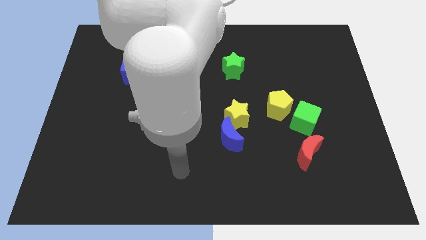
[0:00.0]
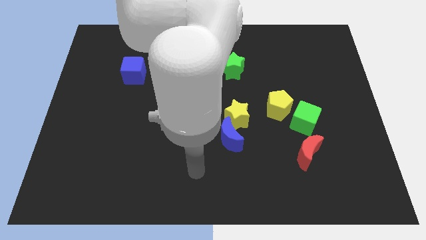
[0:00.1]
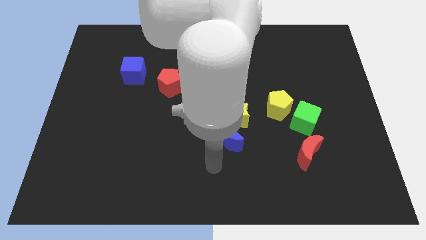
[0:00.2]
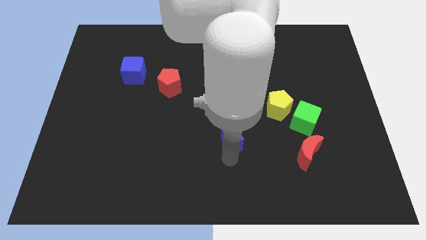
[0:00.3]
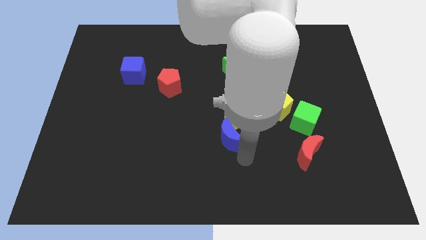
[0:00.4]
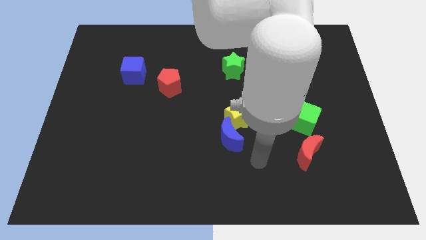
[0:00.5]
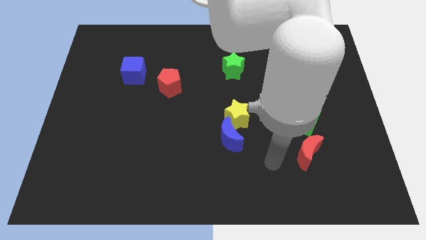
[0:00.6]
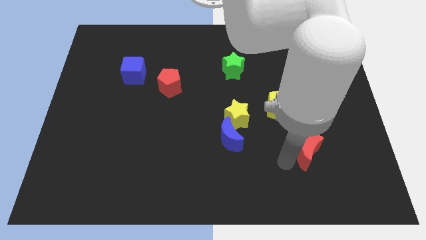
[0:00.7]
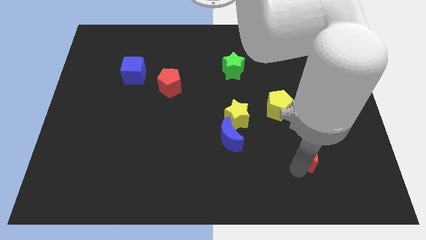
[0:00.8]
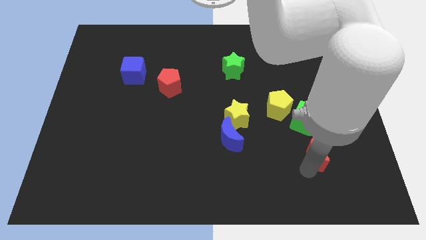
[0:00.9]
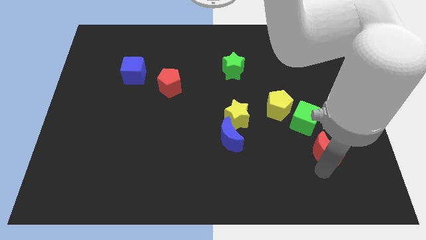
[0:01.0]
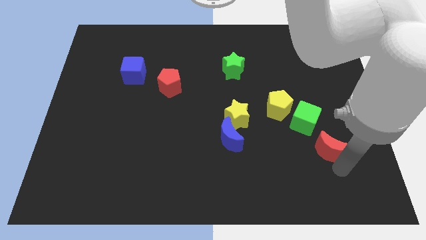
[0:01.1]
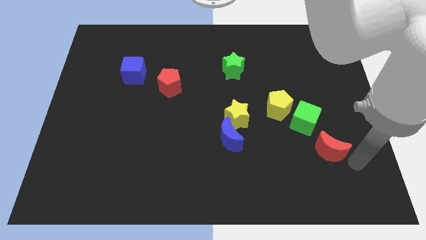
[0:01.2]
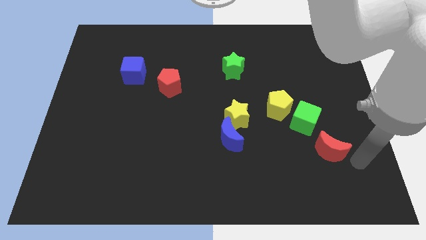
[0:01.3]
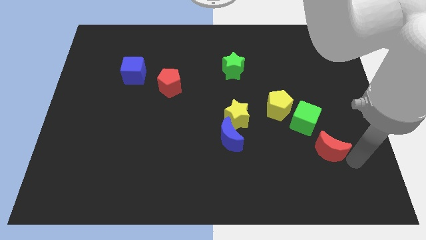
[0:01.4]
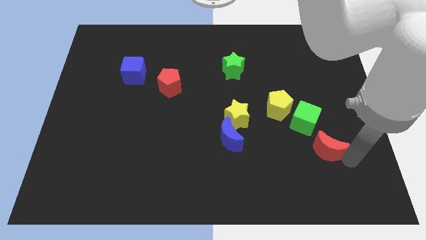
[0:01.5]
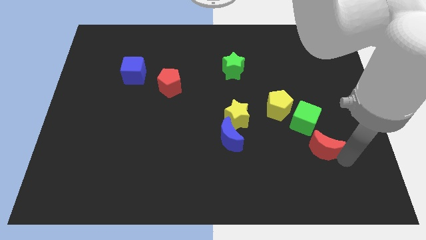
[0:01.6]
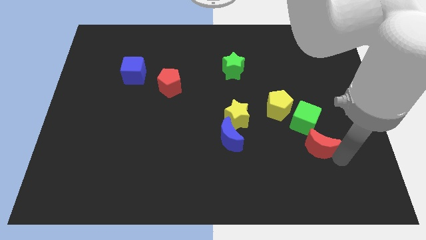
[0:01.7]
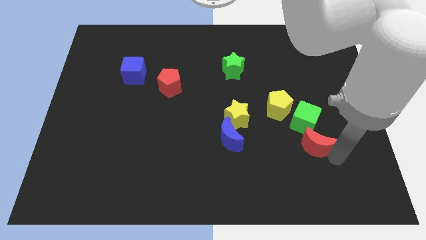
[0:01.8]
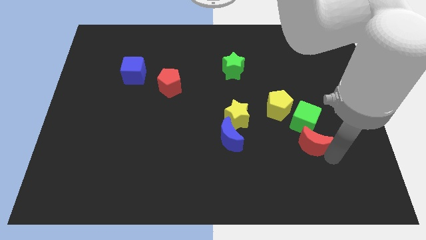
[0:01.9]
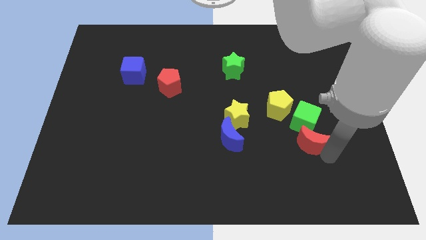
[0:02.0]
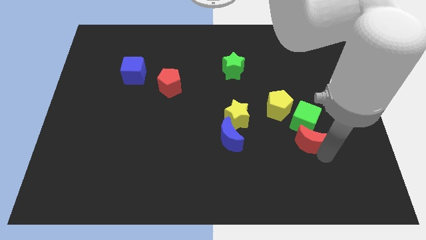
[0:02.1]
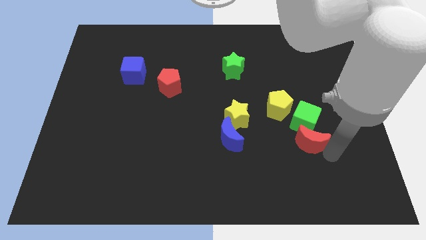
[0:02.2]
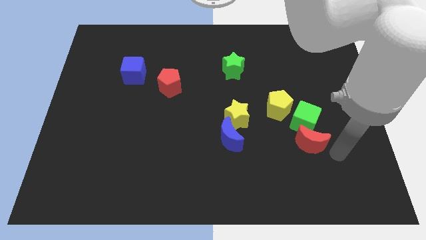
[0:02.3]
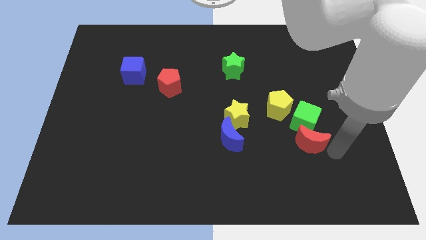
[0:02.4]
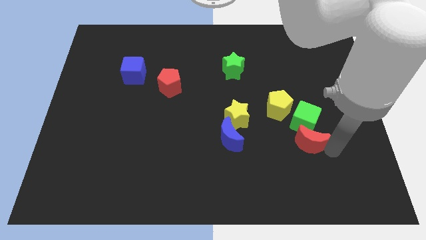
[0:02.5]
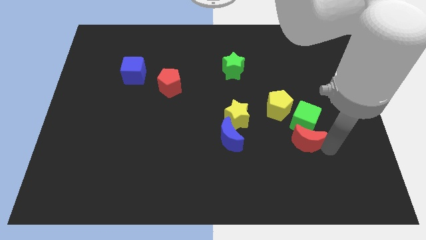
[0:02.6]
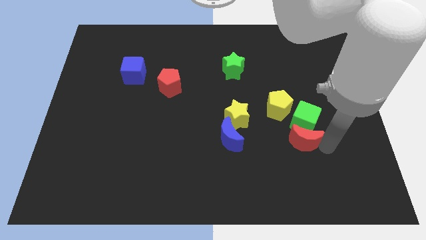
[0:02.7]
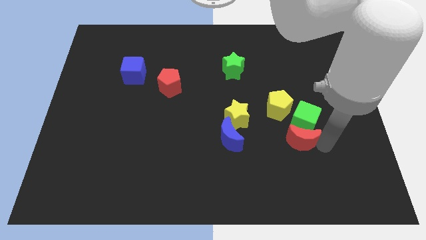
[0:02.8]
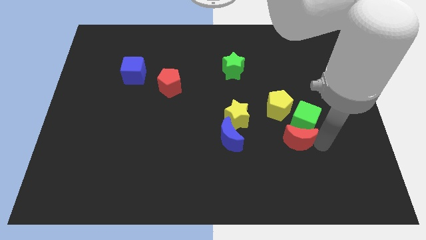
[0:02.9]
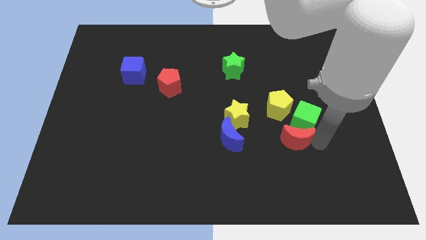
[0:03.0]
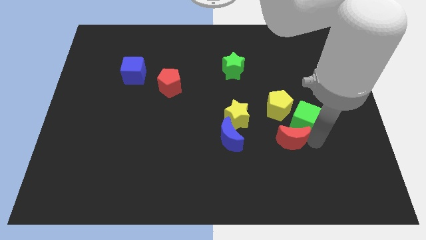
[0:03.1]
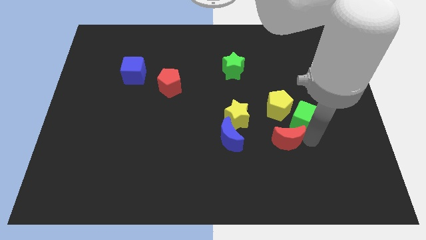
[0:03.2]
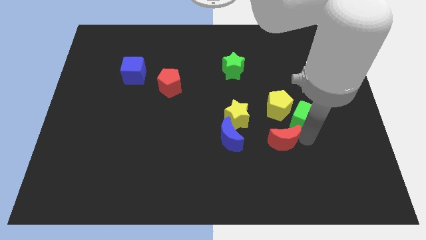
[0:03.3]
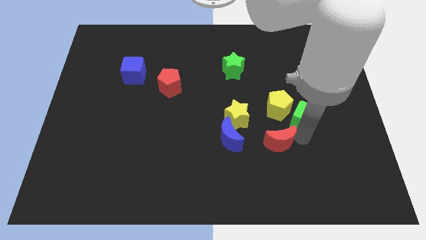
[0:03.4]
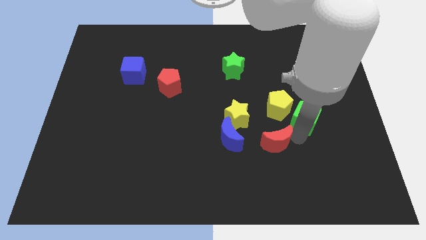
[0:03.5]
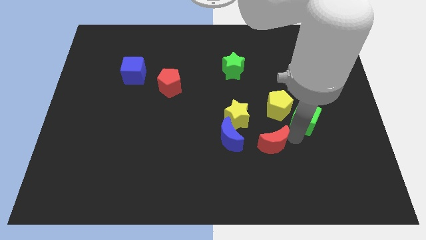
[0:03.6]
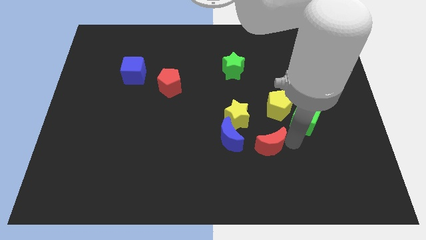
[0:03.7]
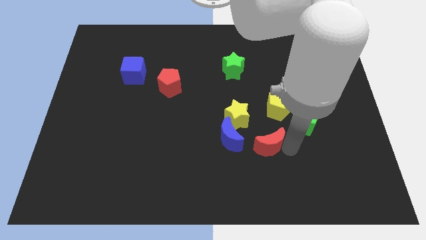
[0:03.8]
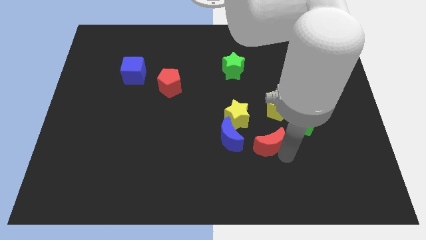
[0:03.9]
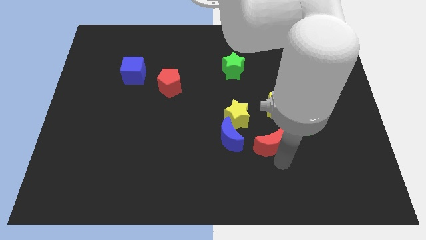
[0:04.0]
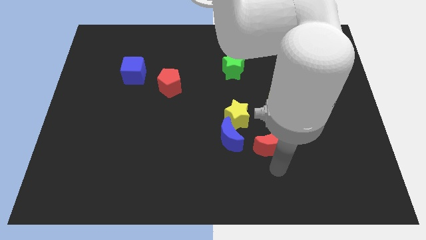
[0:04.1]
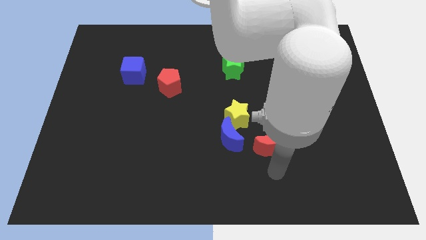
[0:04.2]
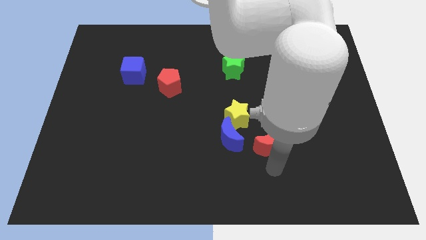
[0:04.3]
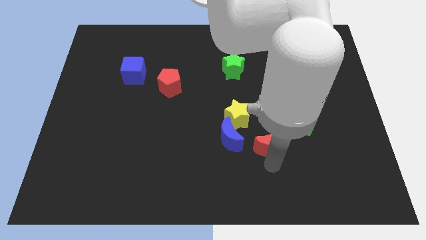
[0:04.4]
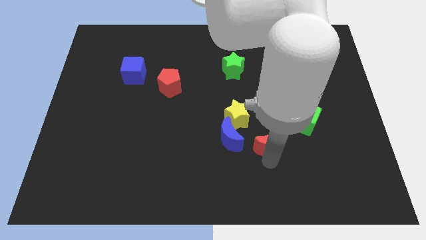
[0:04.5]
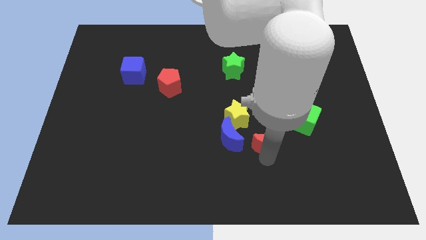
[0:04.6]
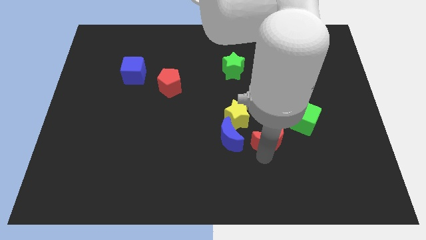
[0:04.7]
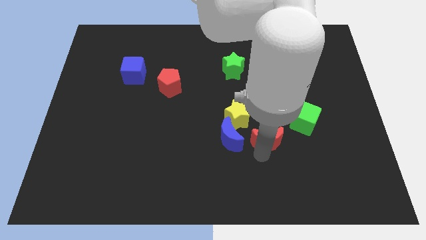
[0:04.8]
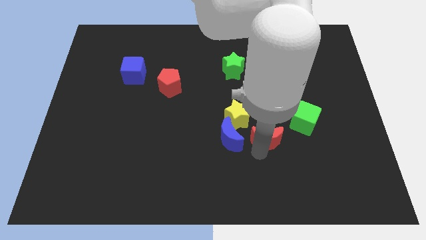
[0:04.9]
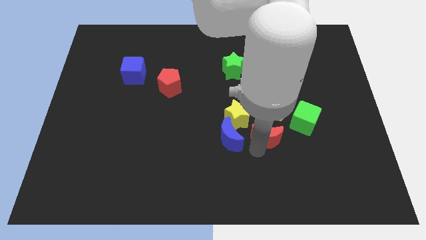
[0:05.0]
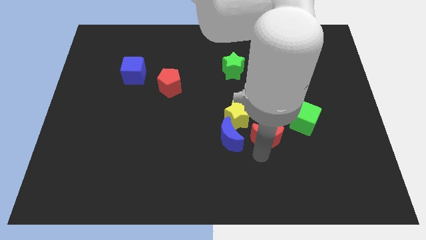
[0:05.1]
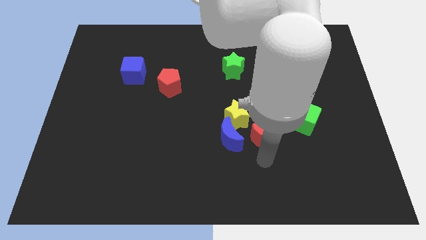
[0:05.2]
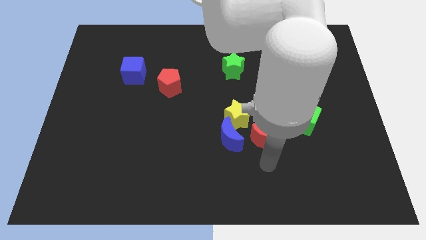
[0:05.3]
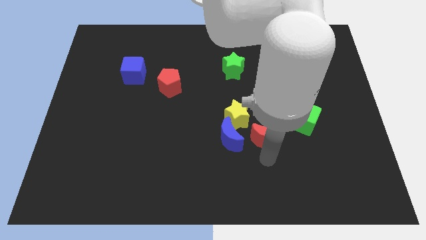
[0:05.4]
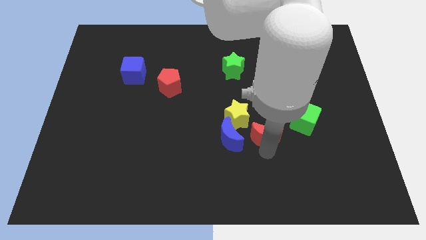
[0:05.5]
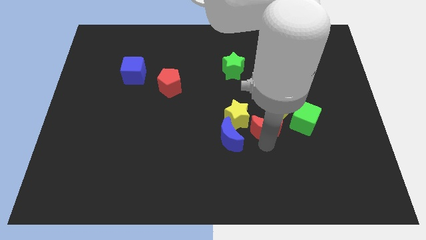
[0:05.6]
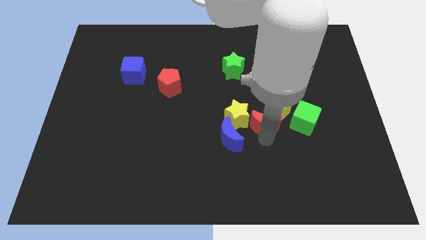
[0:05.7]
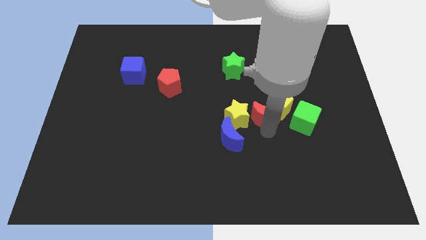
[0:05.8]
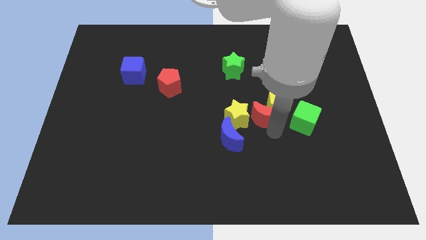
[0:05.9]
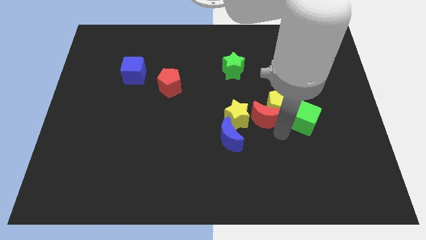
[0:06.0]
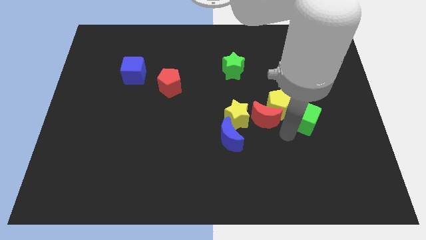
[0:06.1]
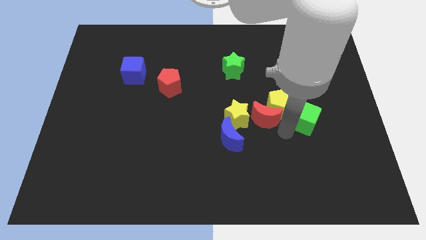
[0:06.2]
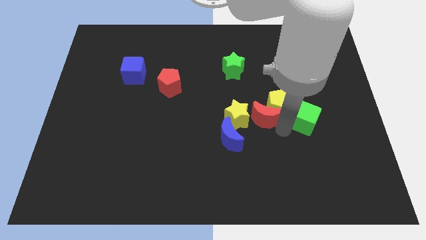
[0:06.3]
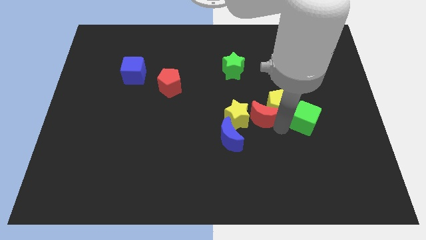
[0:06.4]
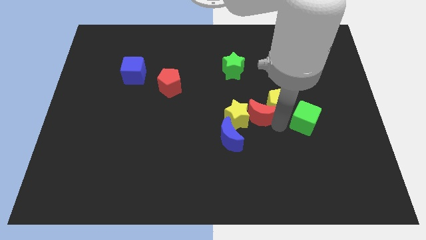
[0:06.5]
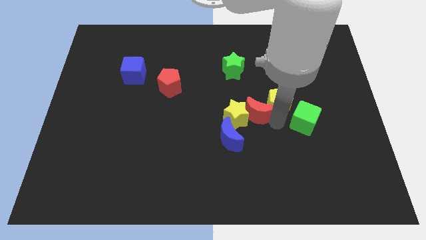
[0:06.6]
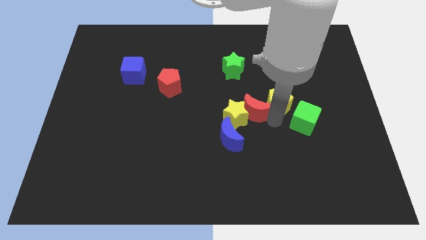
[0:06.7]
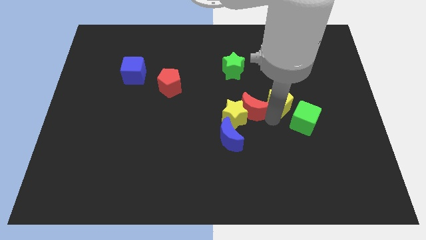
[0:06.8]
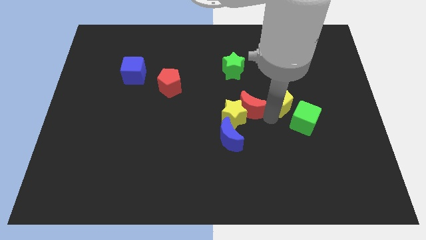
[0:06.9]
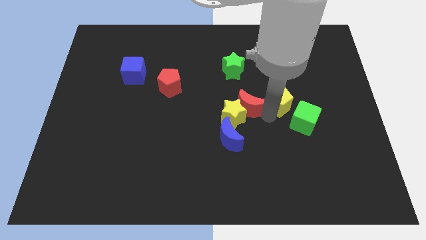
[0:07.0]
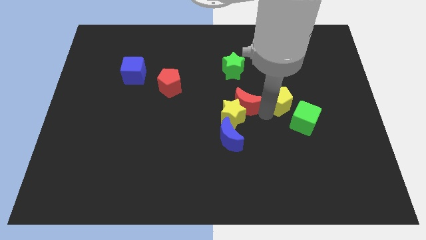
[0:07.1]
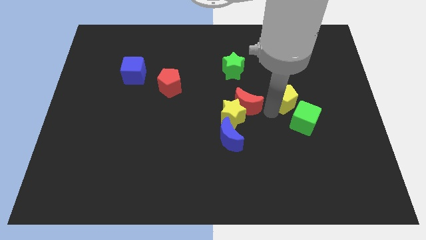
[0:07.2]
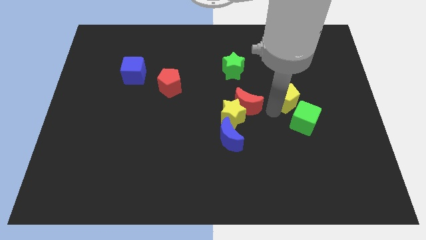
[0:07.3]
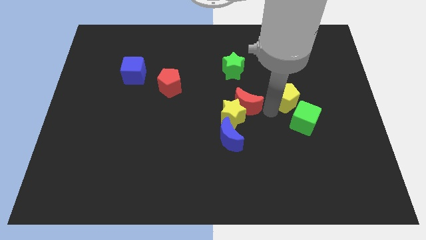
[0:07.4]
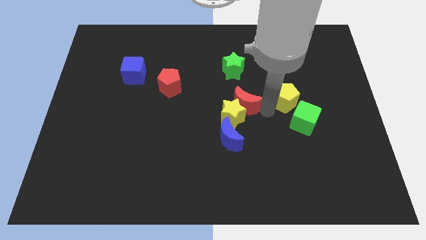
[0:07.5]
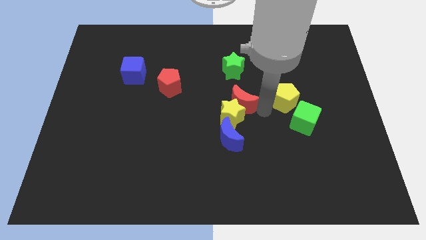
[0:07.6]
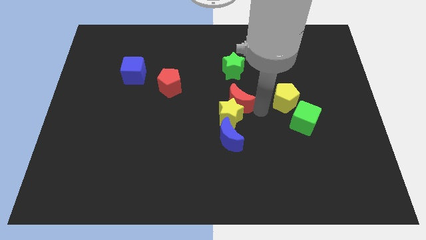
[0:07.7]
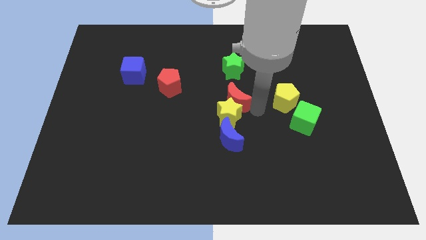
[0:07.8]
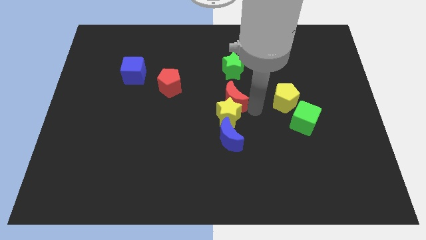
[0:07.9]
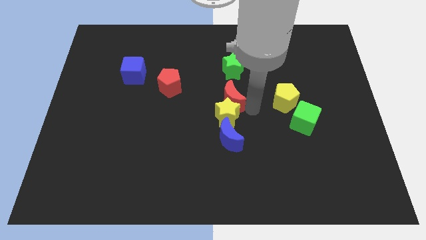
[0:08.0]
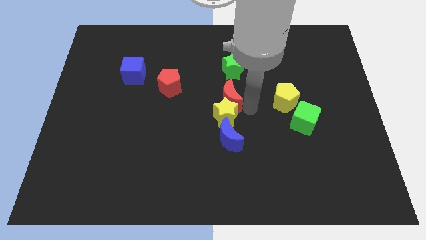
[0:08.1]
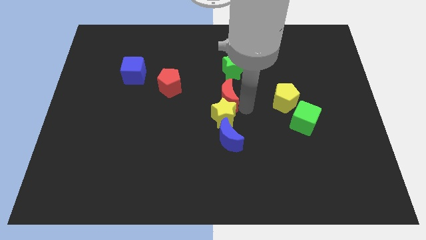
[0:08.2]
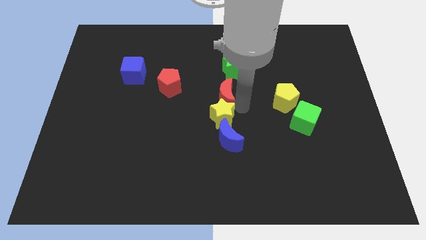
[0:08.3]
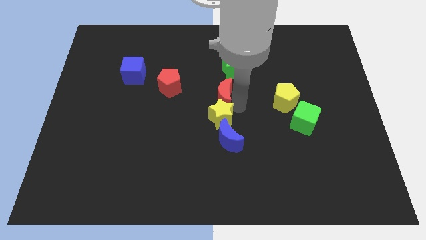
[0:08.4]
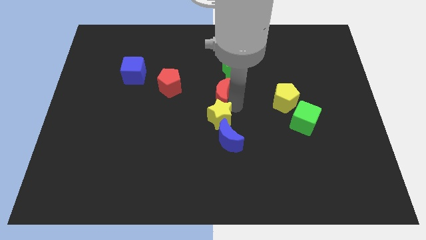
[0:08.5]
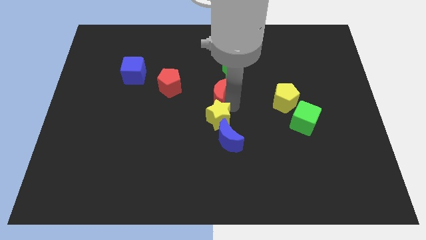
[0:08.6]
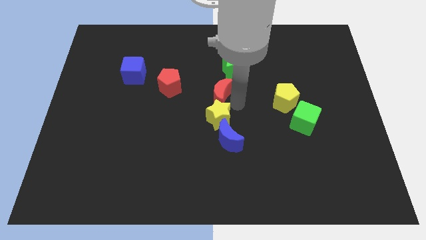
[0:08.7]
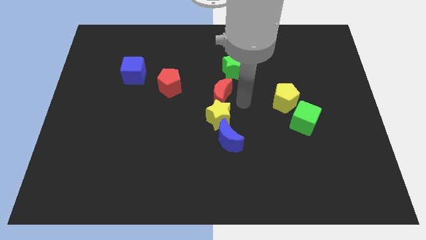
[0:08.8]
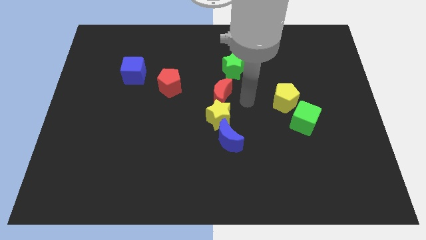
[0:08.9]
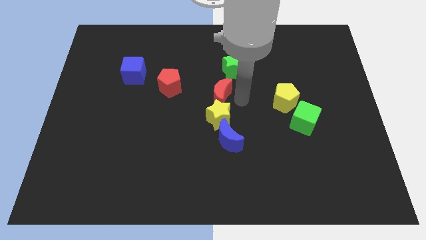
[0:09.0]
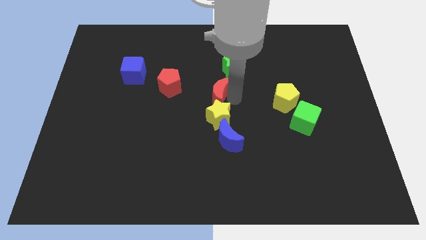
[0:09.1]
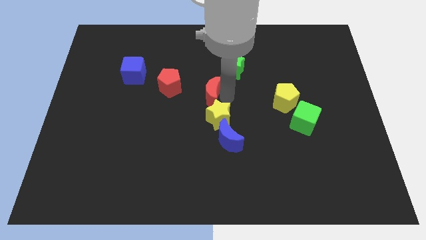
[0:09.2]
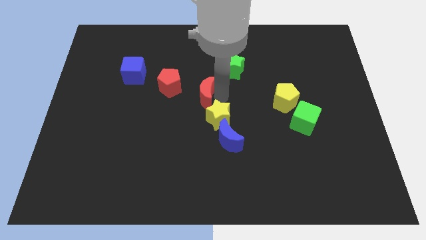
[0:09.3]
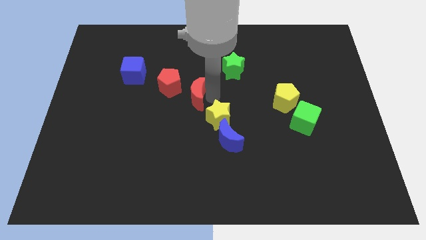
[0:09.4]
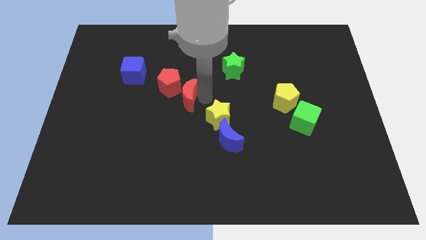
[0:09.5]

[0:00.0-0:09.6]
slide the red moon next to the red pentagon
